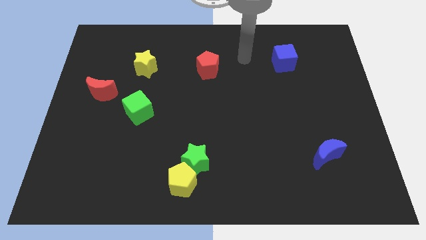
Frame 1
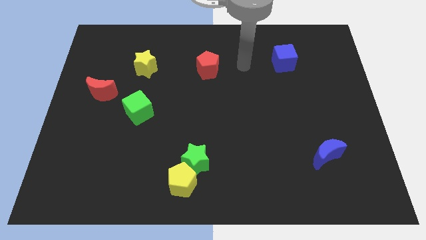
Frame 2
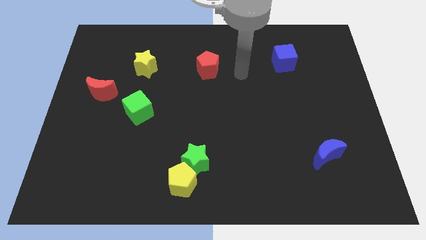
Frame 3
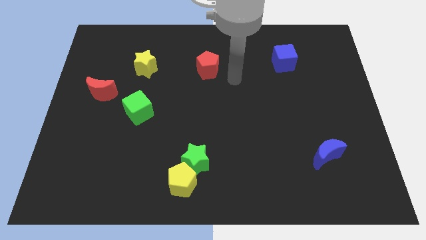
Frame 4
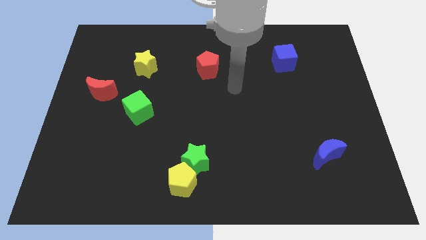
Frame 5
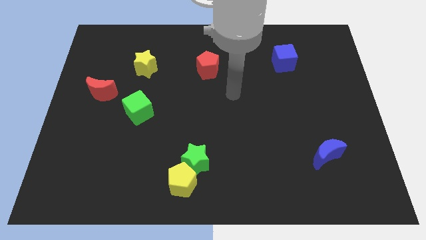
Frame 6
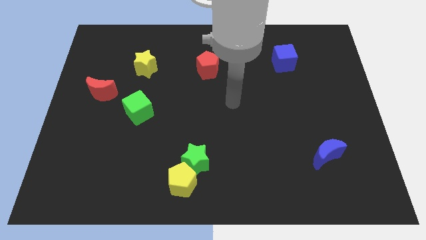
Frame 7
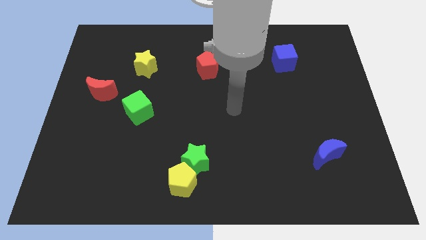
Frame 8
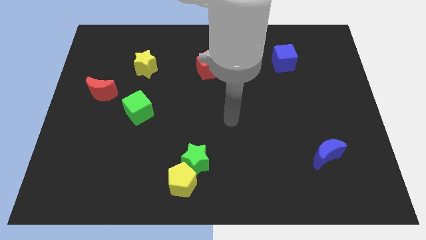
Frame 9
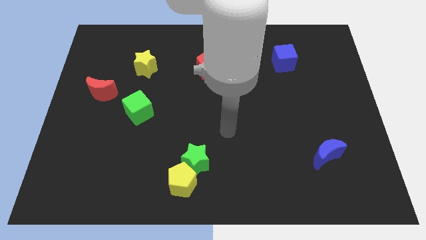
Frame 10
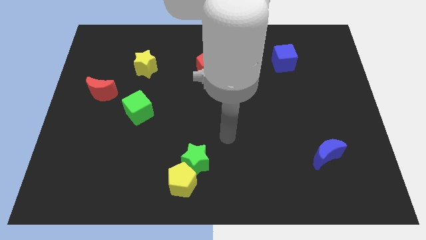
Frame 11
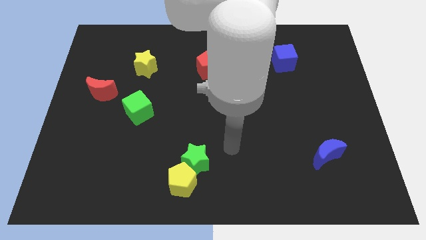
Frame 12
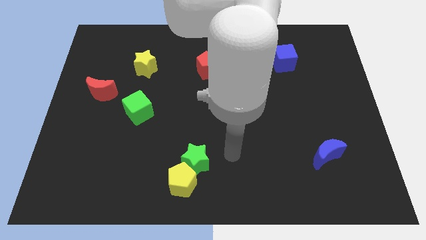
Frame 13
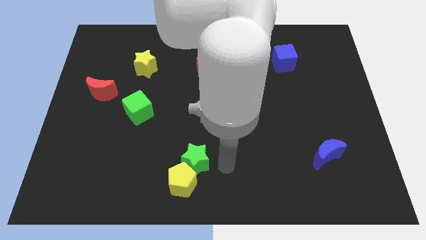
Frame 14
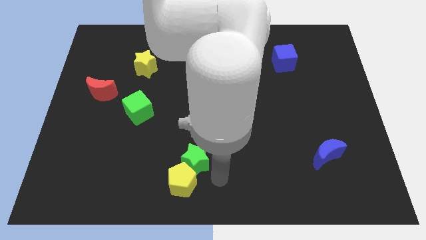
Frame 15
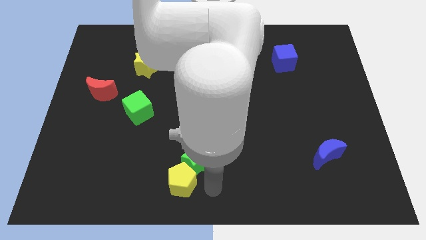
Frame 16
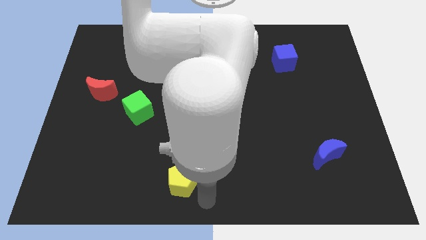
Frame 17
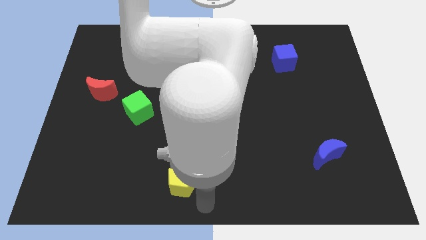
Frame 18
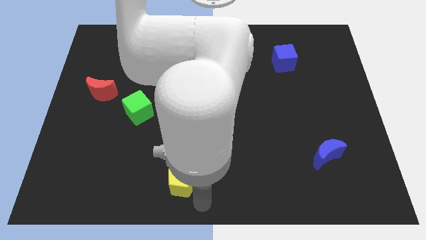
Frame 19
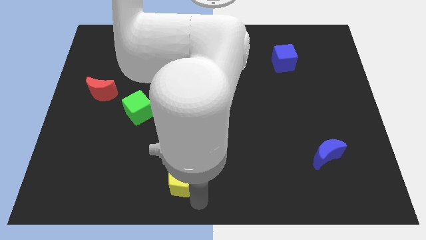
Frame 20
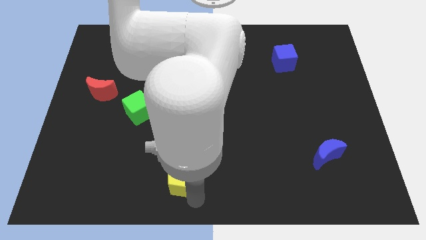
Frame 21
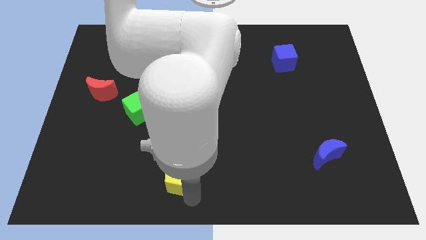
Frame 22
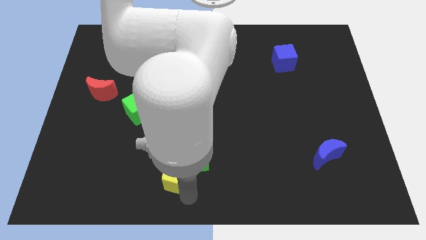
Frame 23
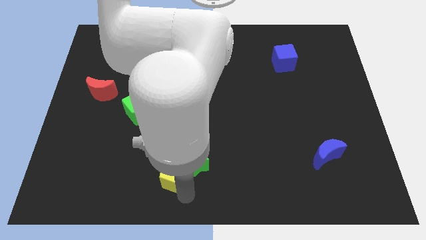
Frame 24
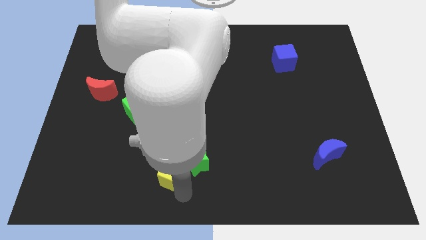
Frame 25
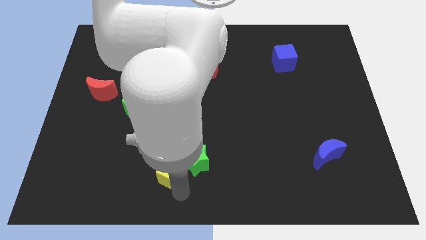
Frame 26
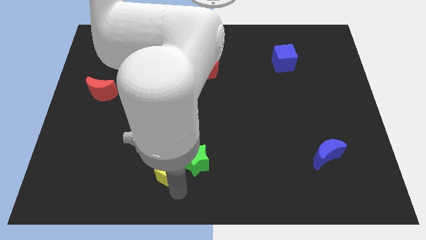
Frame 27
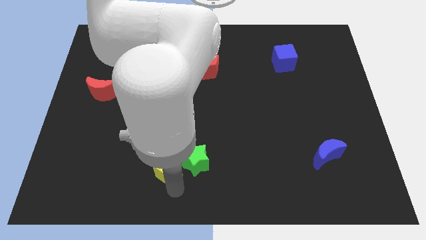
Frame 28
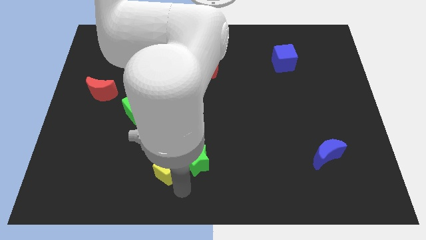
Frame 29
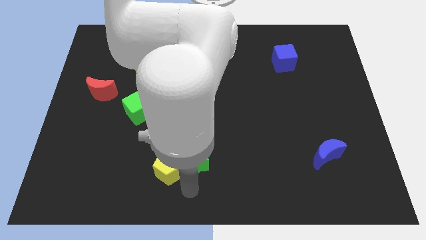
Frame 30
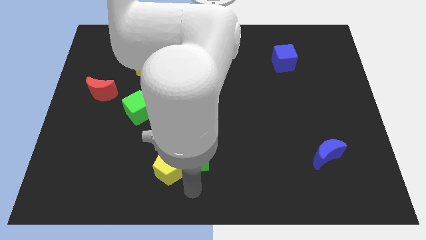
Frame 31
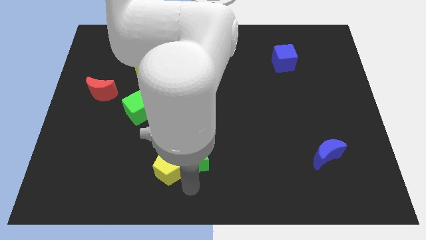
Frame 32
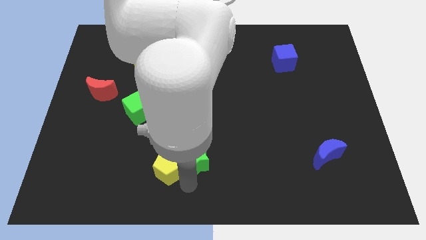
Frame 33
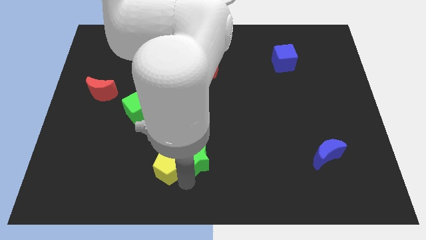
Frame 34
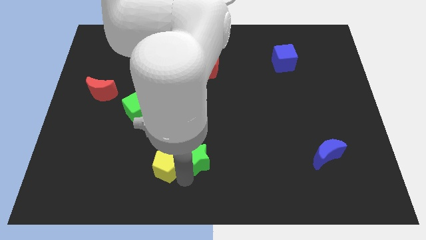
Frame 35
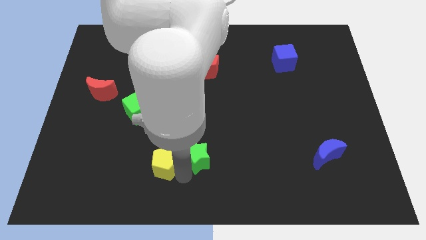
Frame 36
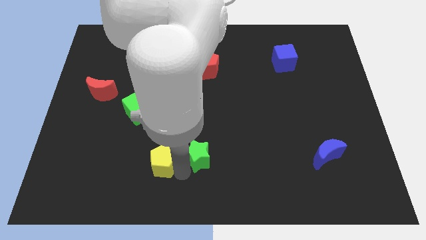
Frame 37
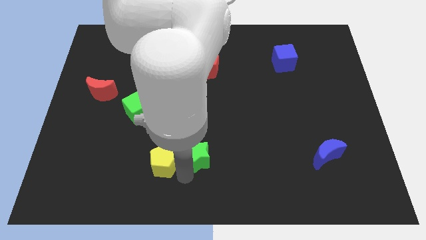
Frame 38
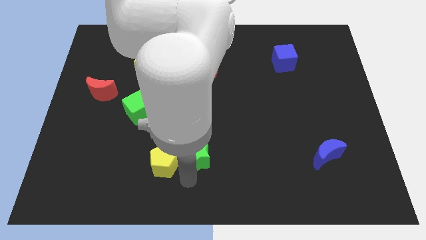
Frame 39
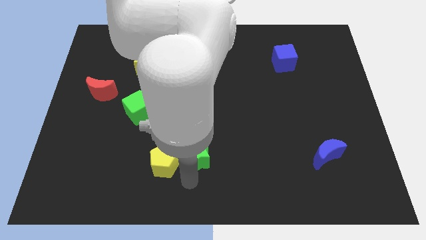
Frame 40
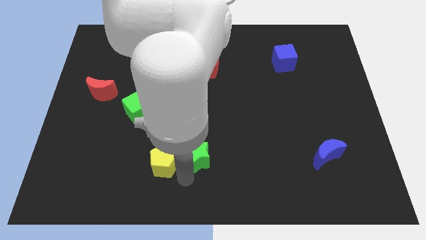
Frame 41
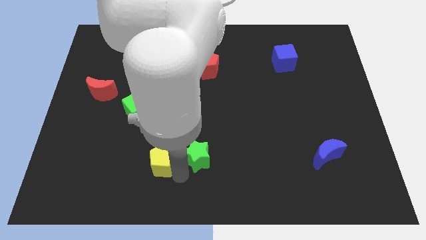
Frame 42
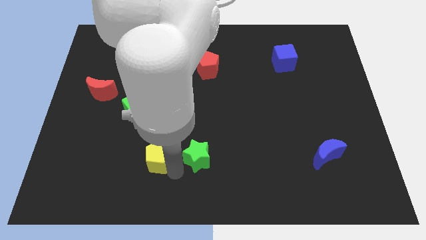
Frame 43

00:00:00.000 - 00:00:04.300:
slightly move the yellow pentagon up and then to the left

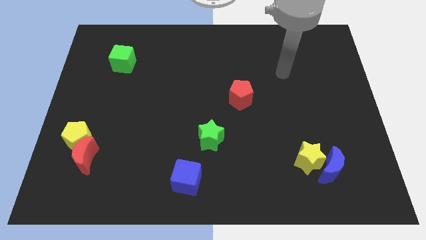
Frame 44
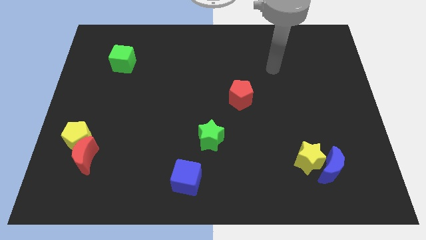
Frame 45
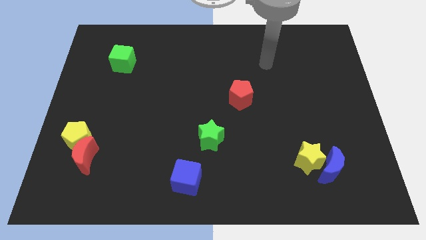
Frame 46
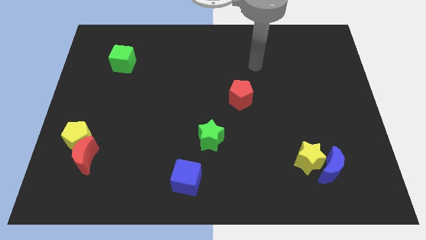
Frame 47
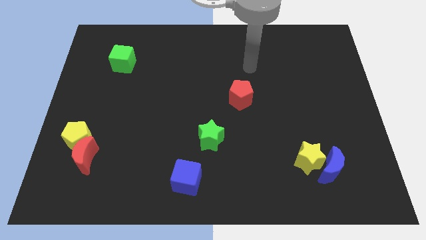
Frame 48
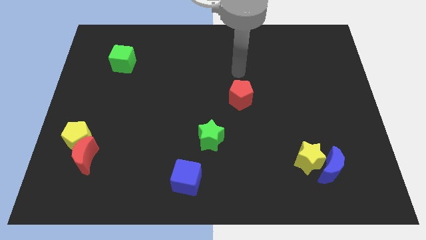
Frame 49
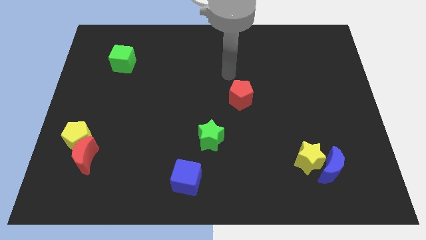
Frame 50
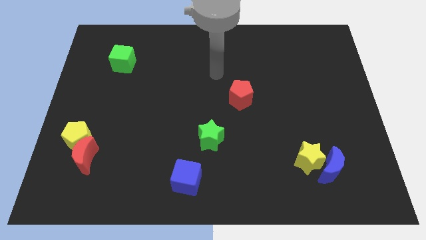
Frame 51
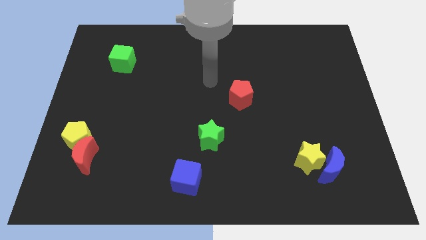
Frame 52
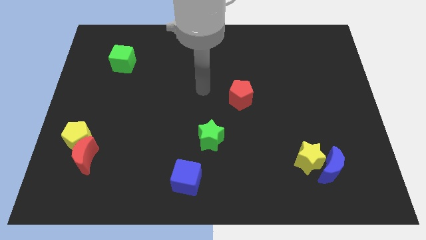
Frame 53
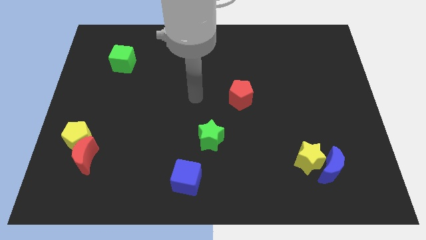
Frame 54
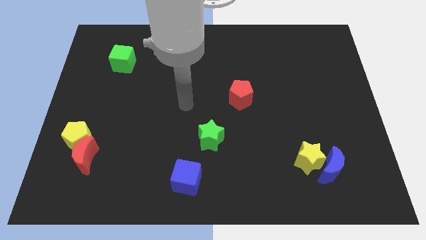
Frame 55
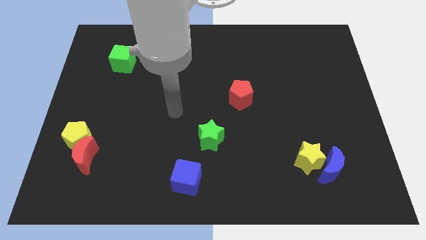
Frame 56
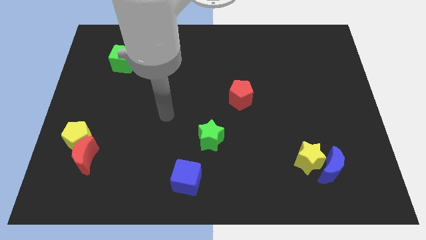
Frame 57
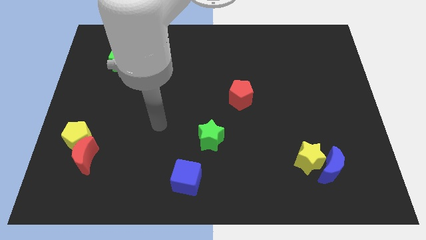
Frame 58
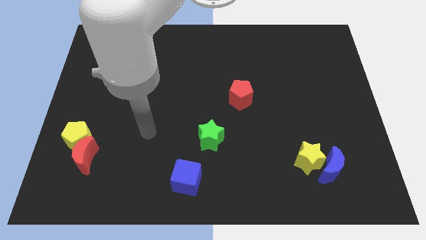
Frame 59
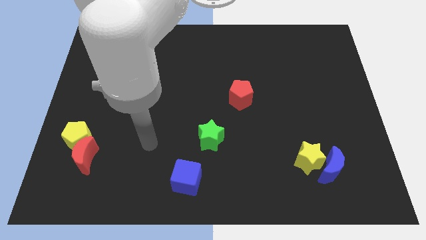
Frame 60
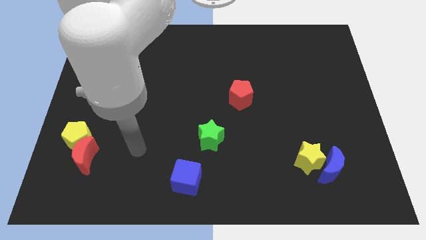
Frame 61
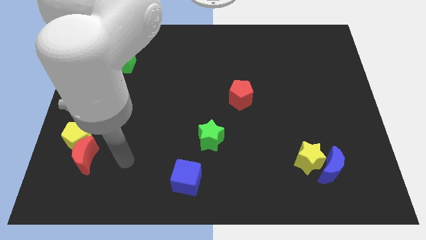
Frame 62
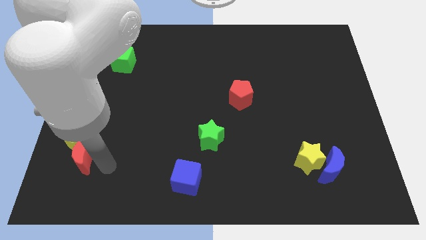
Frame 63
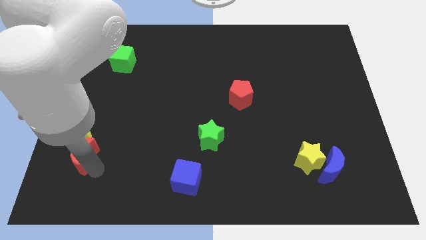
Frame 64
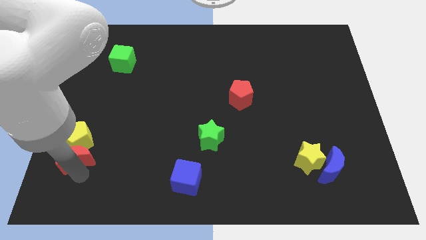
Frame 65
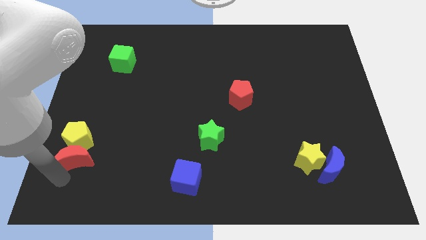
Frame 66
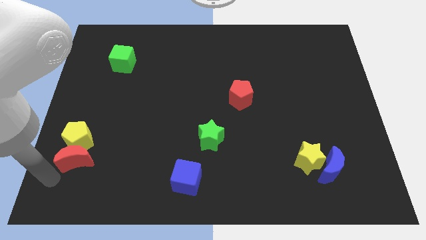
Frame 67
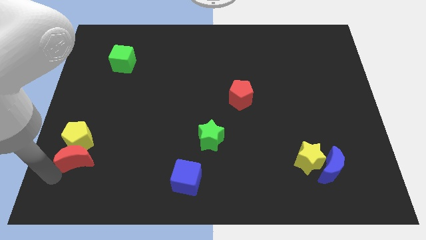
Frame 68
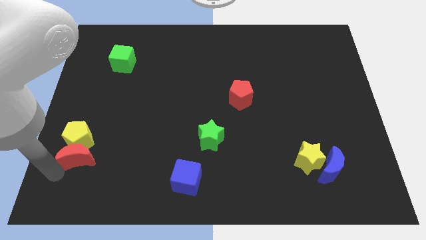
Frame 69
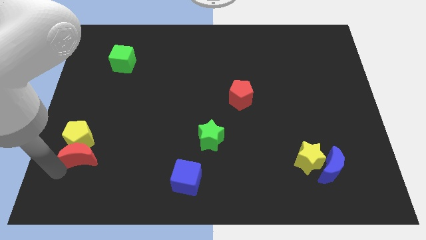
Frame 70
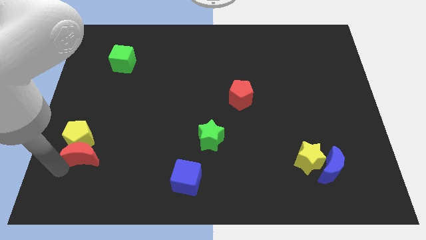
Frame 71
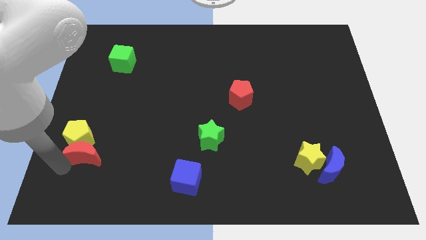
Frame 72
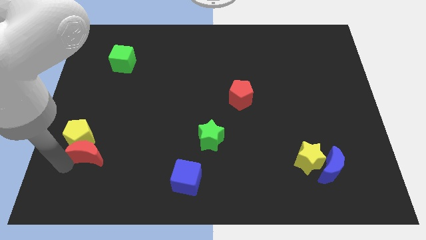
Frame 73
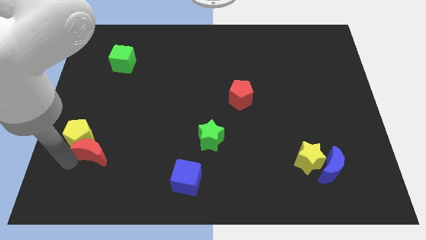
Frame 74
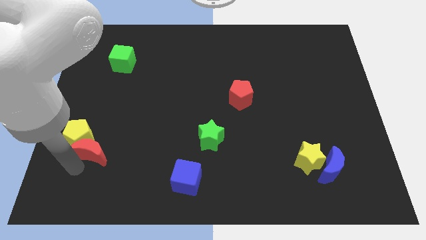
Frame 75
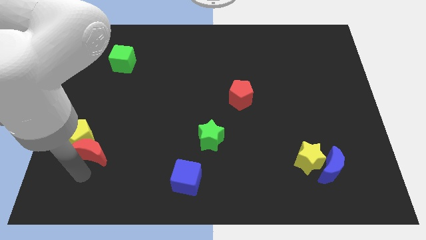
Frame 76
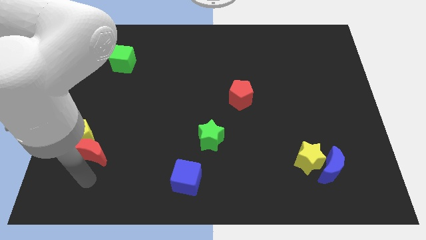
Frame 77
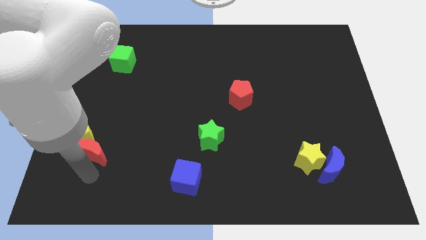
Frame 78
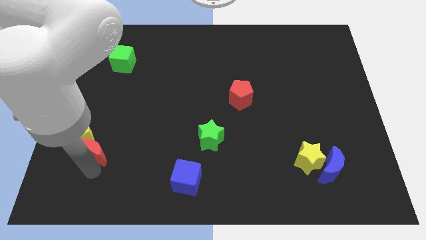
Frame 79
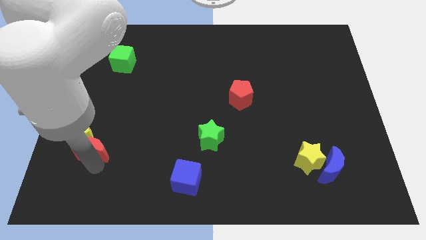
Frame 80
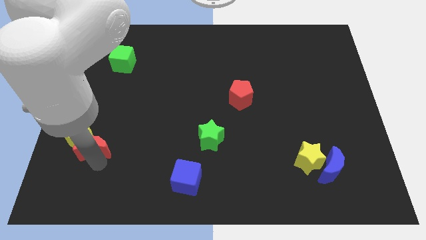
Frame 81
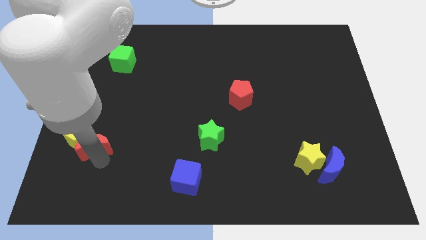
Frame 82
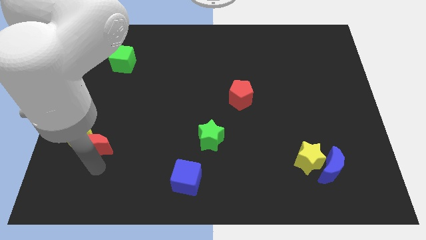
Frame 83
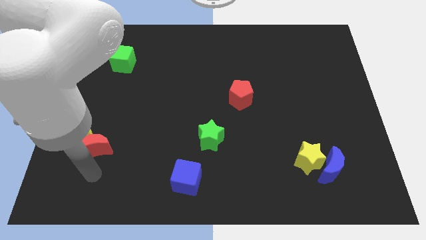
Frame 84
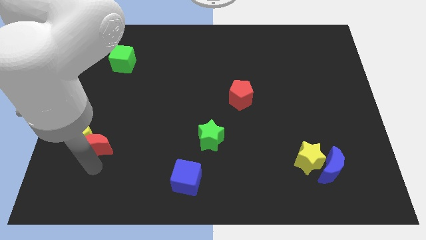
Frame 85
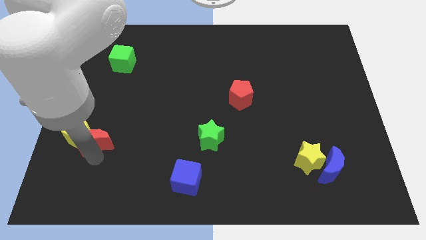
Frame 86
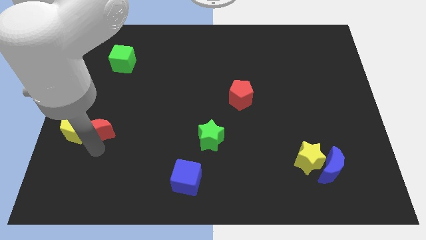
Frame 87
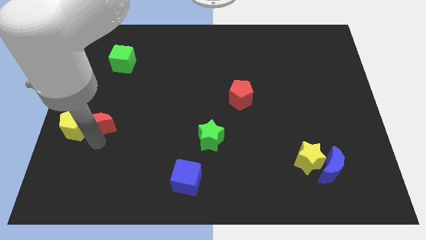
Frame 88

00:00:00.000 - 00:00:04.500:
push the red moon upwards a bit
